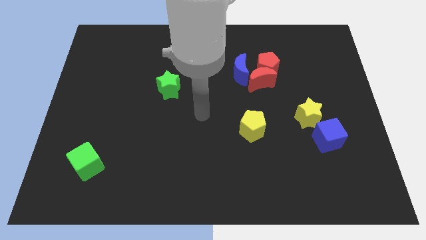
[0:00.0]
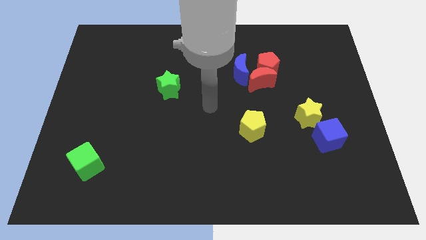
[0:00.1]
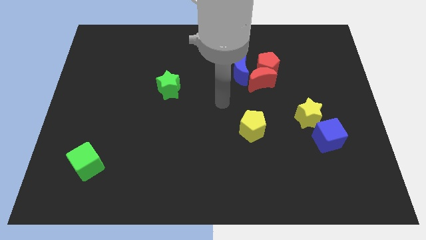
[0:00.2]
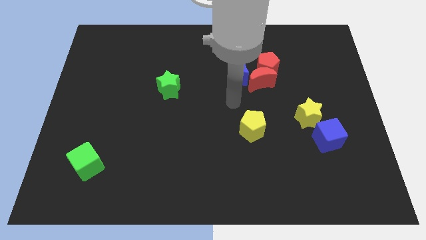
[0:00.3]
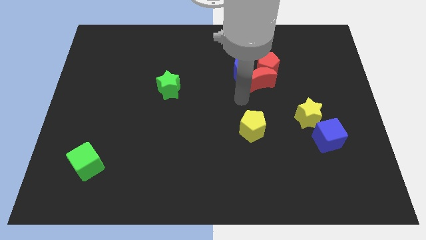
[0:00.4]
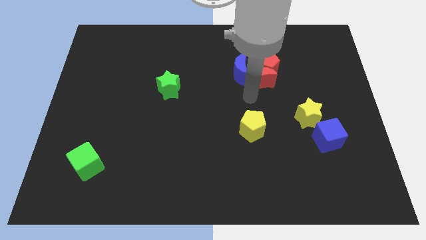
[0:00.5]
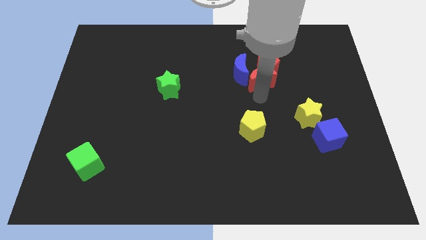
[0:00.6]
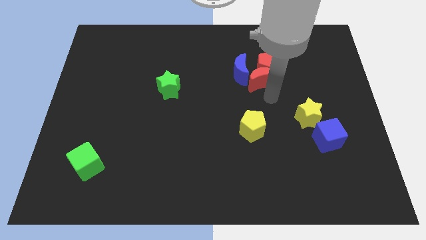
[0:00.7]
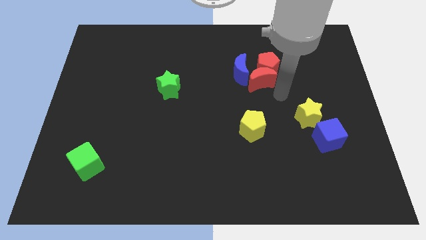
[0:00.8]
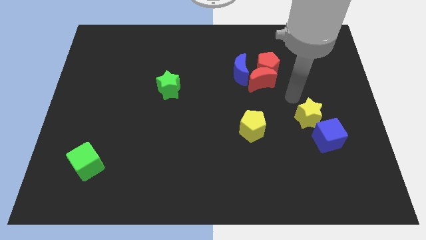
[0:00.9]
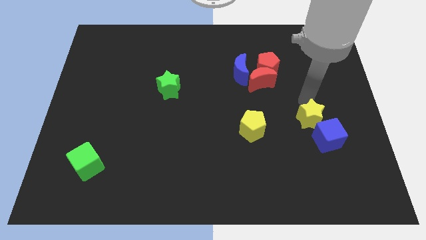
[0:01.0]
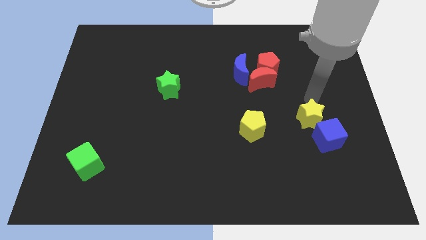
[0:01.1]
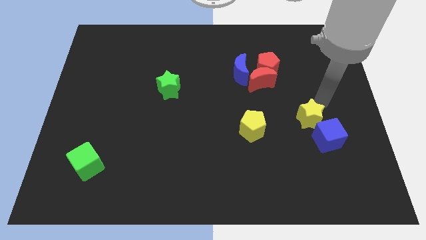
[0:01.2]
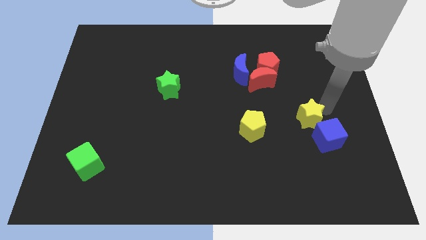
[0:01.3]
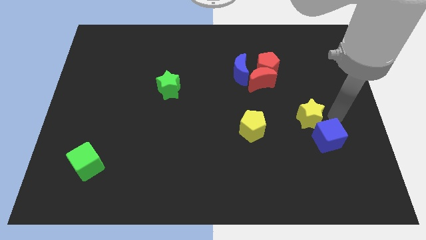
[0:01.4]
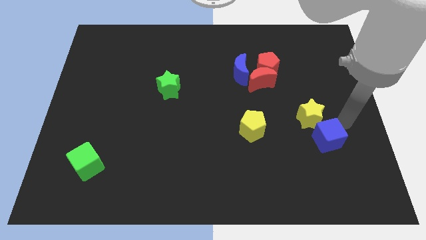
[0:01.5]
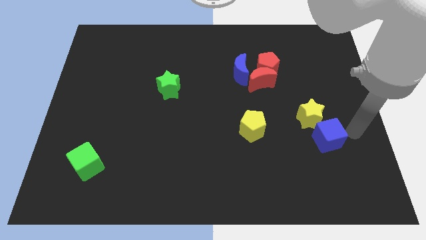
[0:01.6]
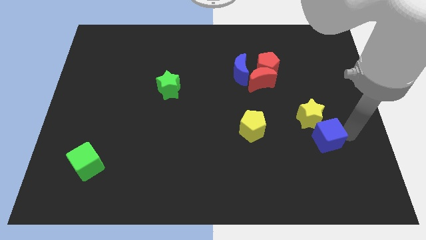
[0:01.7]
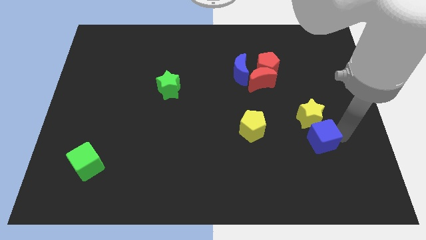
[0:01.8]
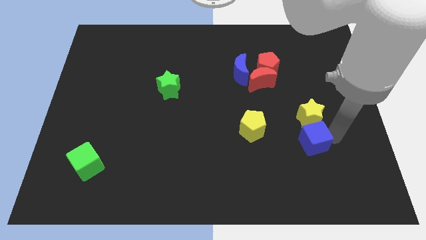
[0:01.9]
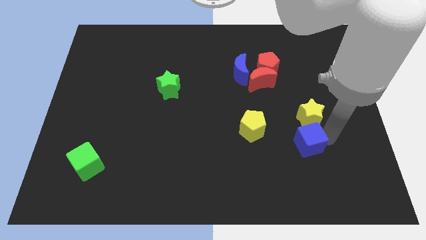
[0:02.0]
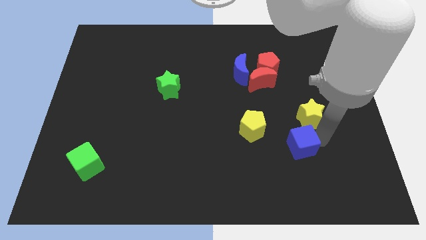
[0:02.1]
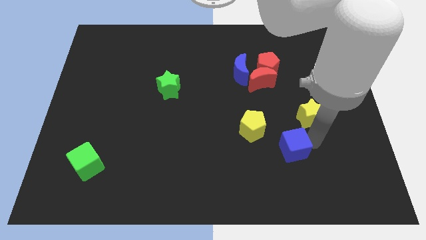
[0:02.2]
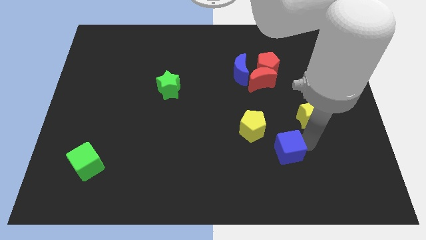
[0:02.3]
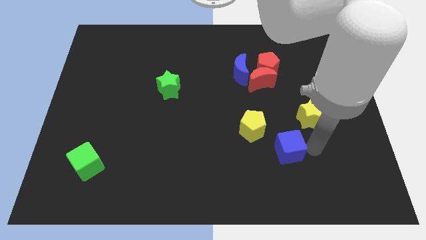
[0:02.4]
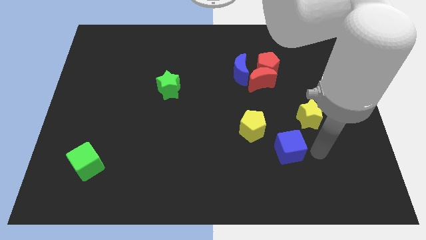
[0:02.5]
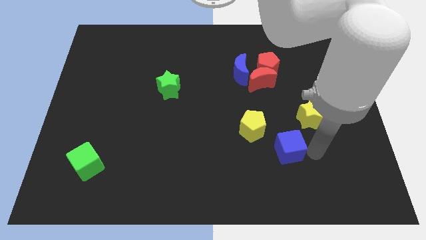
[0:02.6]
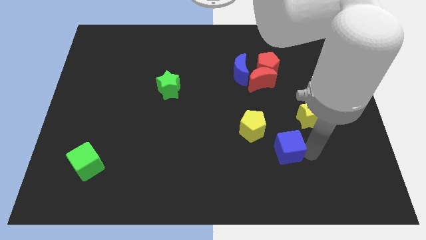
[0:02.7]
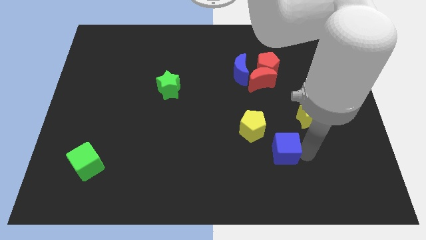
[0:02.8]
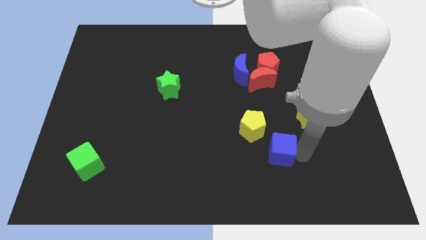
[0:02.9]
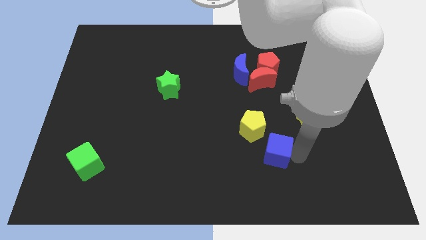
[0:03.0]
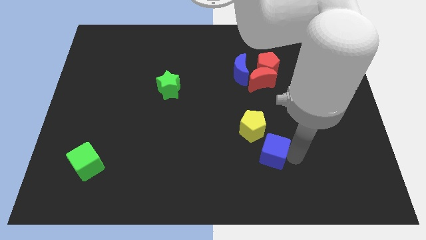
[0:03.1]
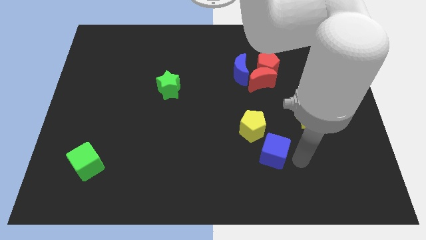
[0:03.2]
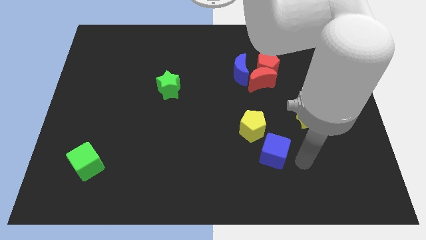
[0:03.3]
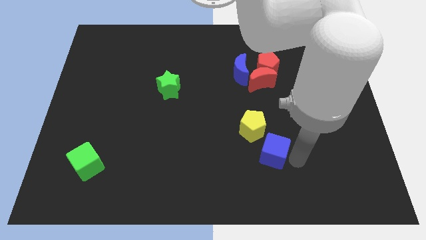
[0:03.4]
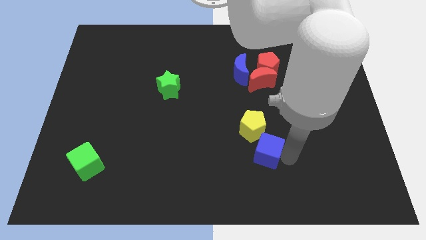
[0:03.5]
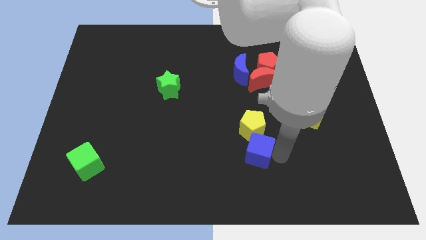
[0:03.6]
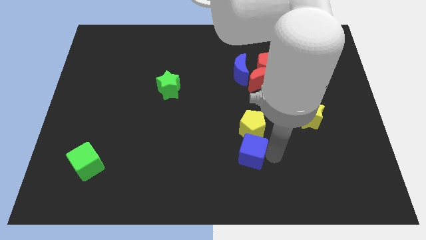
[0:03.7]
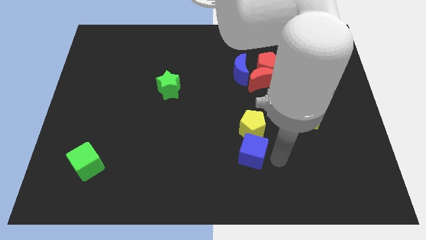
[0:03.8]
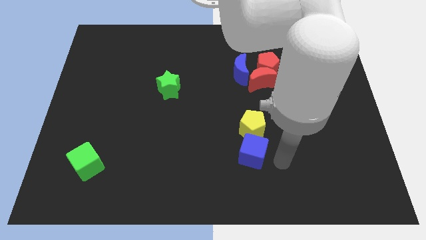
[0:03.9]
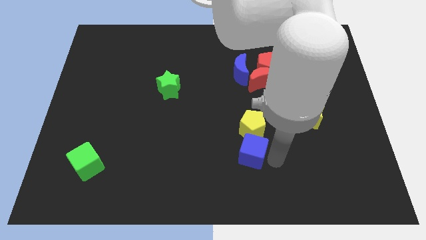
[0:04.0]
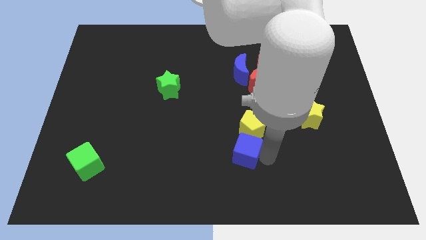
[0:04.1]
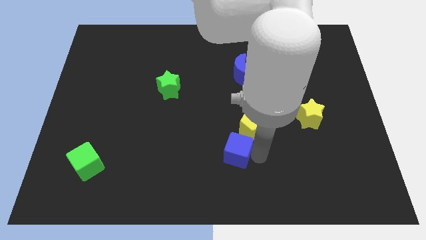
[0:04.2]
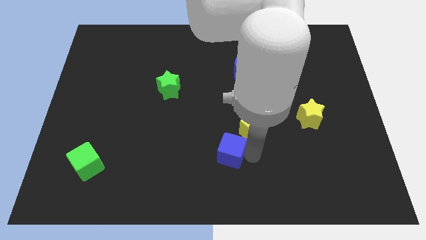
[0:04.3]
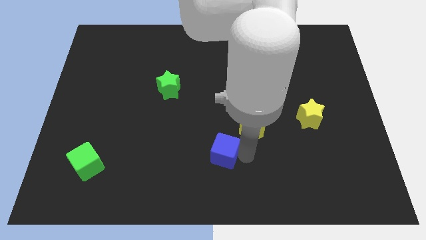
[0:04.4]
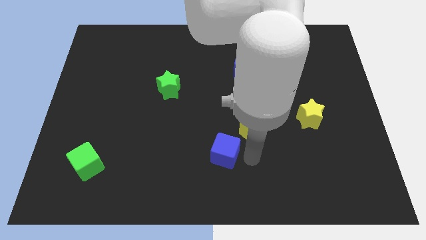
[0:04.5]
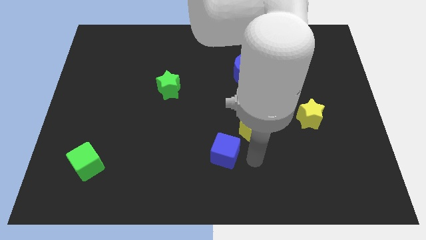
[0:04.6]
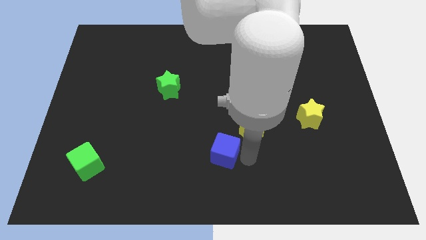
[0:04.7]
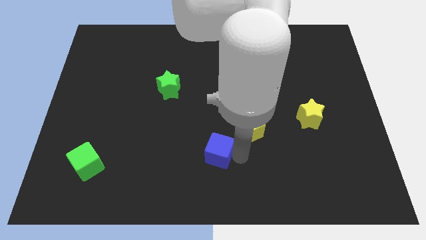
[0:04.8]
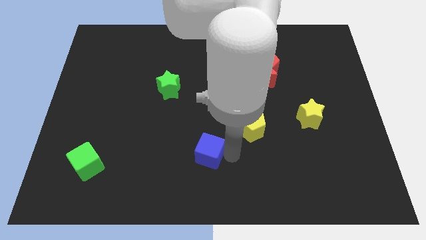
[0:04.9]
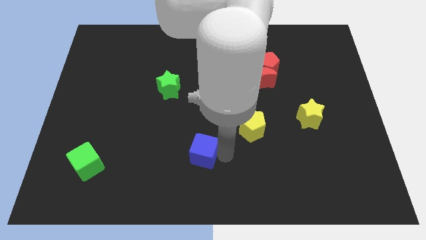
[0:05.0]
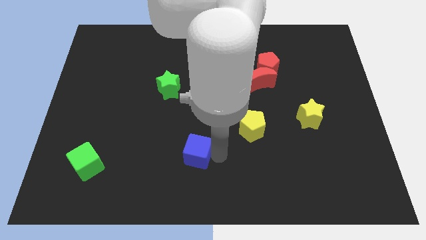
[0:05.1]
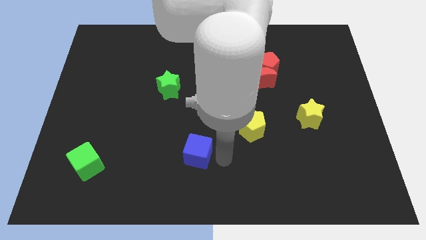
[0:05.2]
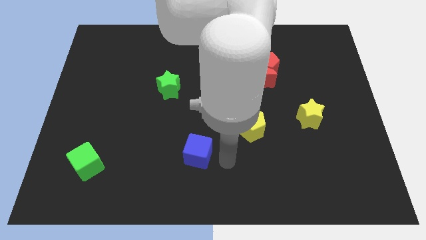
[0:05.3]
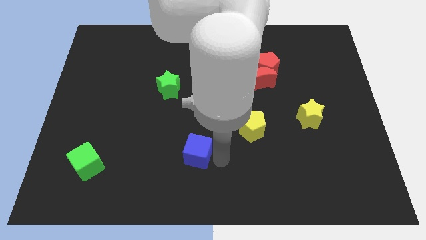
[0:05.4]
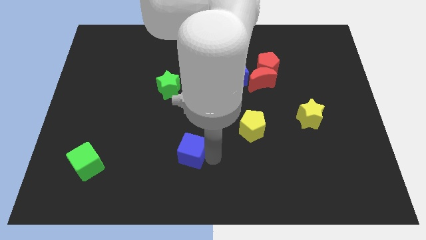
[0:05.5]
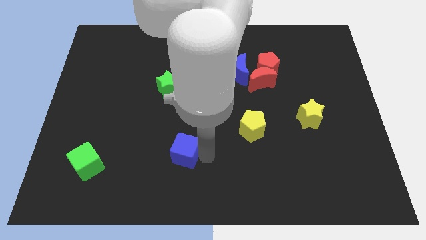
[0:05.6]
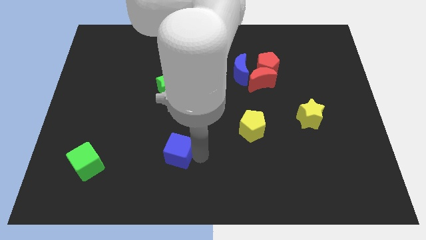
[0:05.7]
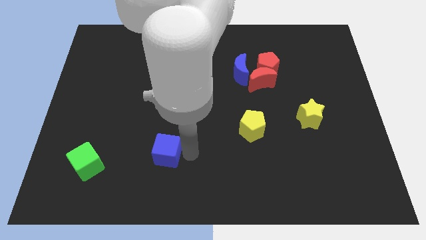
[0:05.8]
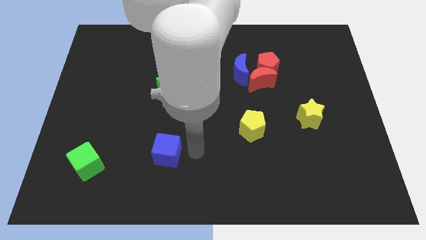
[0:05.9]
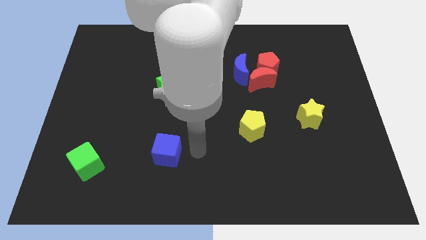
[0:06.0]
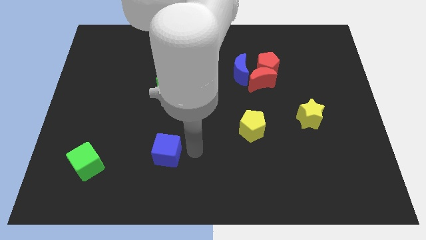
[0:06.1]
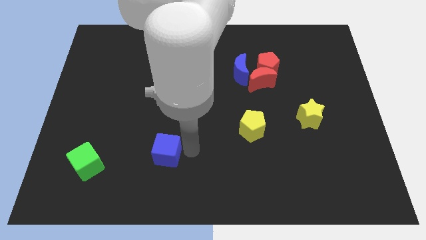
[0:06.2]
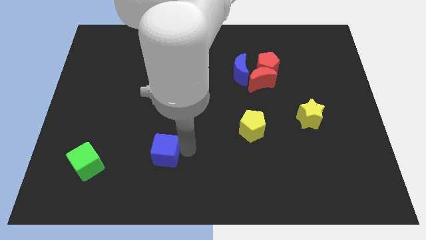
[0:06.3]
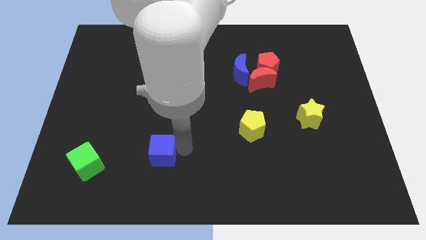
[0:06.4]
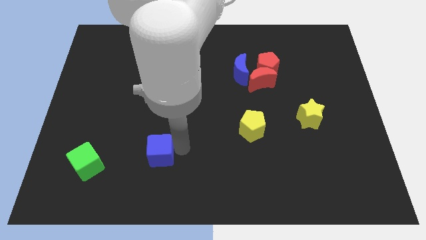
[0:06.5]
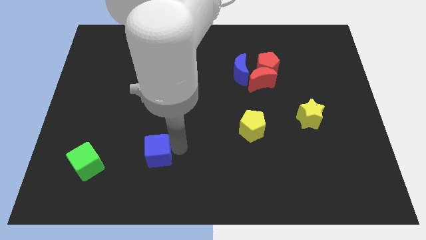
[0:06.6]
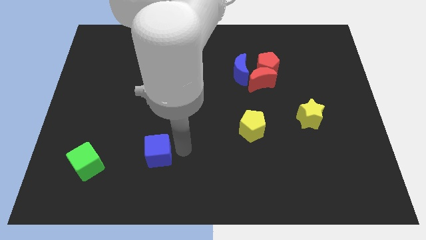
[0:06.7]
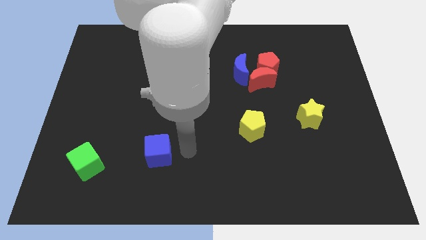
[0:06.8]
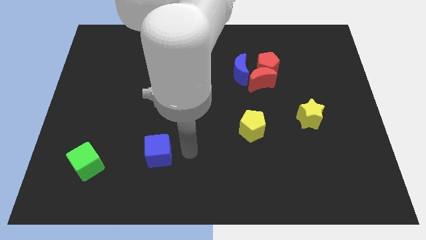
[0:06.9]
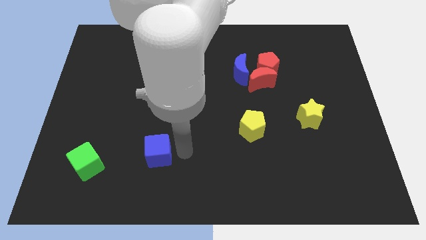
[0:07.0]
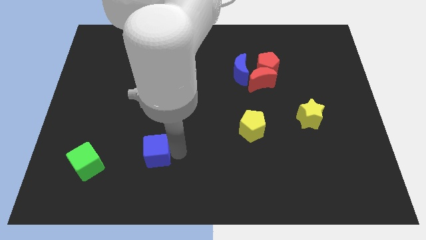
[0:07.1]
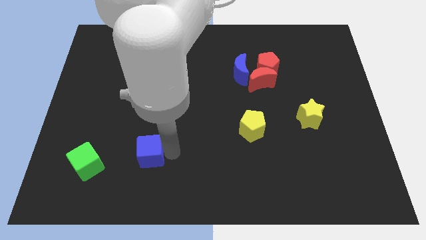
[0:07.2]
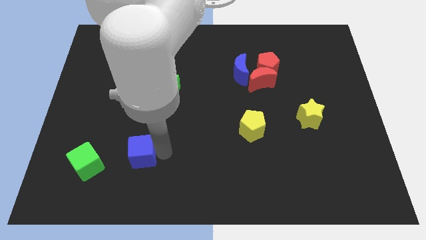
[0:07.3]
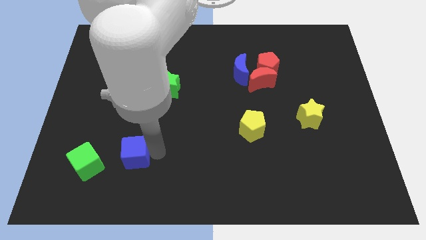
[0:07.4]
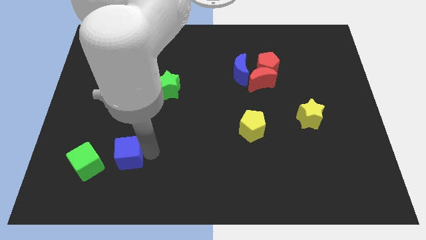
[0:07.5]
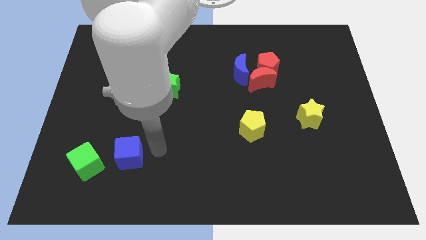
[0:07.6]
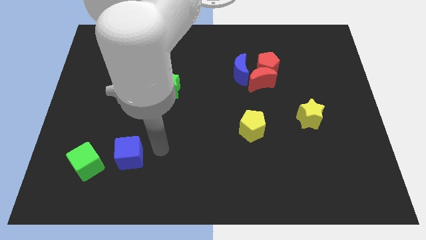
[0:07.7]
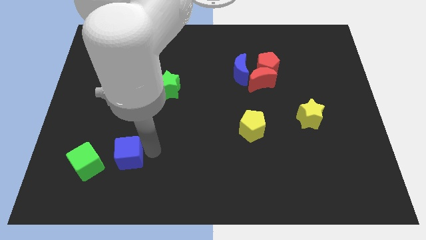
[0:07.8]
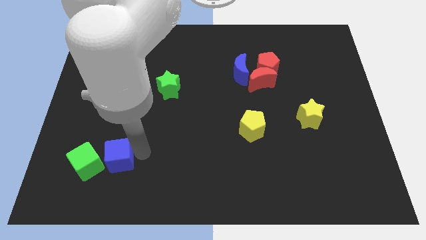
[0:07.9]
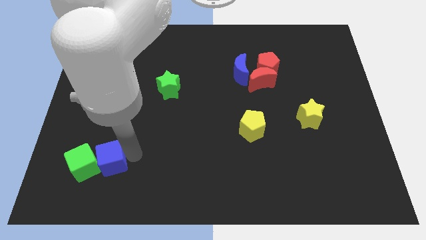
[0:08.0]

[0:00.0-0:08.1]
move the blue cube next to the green cube
